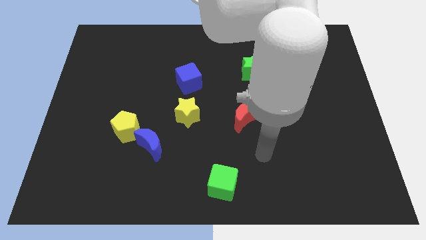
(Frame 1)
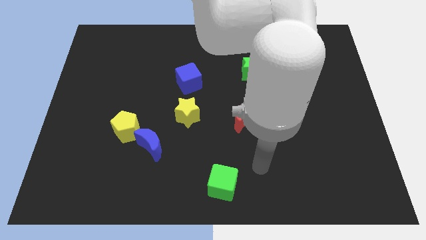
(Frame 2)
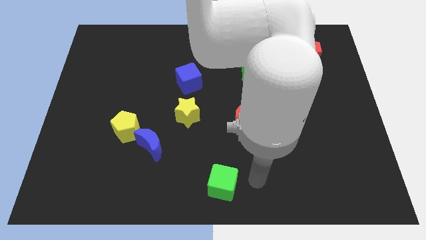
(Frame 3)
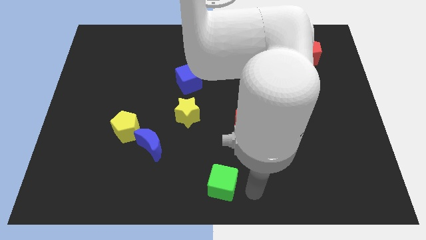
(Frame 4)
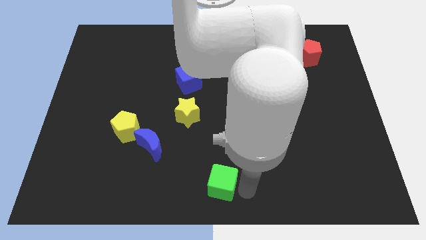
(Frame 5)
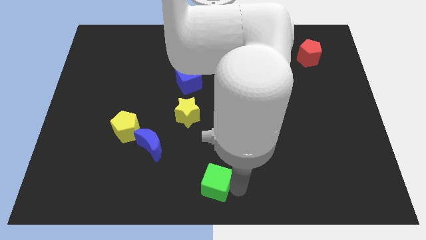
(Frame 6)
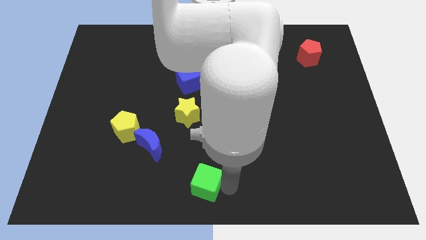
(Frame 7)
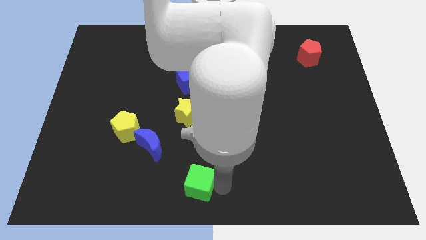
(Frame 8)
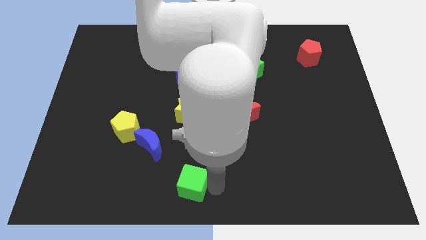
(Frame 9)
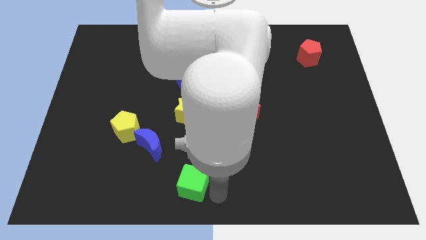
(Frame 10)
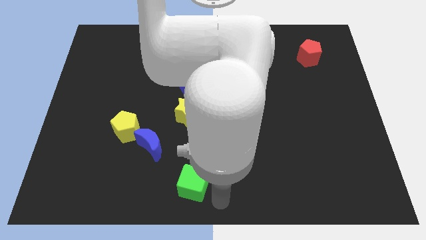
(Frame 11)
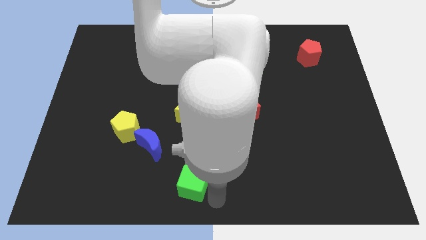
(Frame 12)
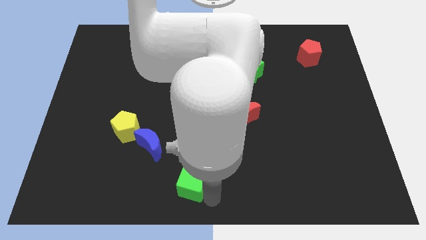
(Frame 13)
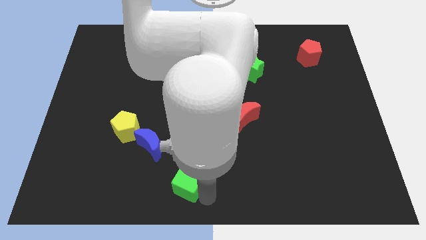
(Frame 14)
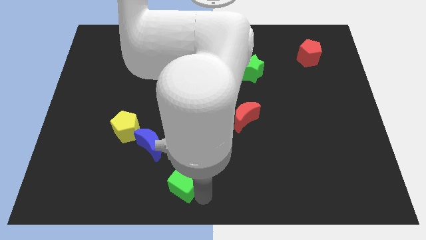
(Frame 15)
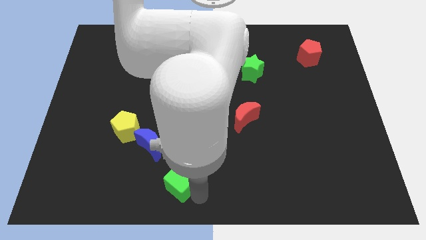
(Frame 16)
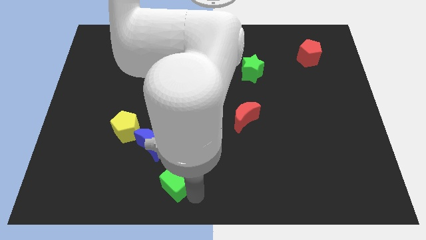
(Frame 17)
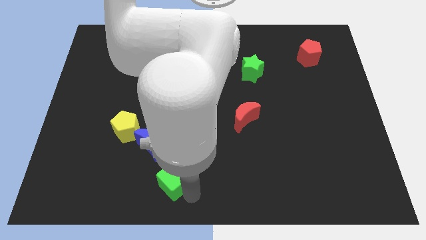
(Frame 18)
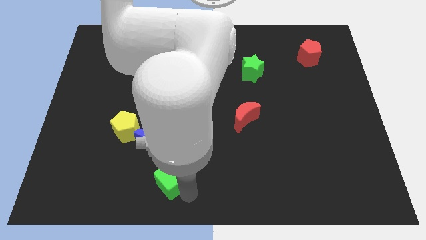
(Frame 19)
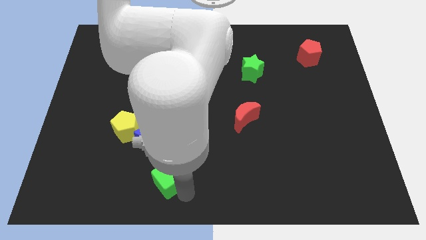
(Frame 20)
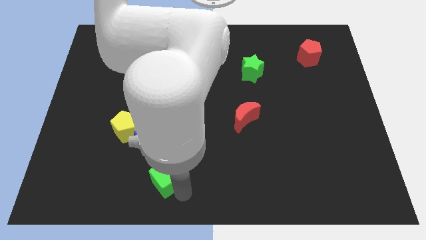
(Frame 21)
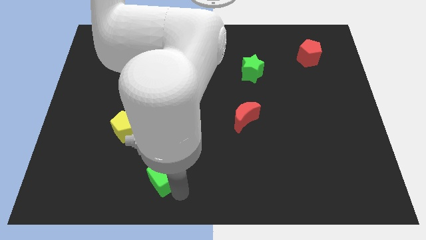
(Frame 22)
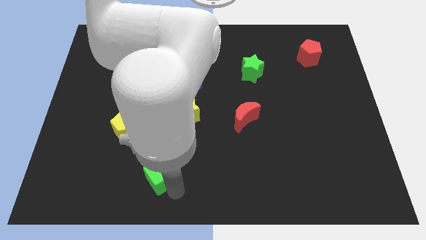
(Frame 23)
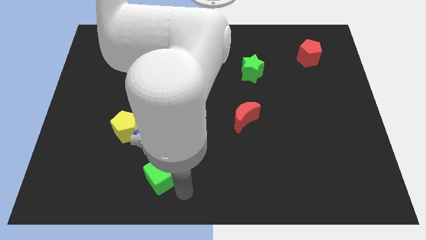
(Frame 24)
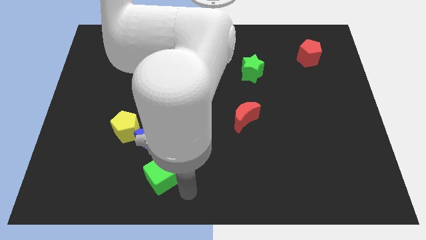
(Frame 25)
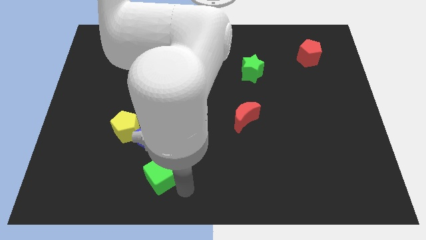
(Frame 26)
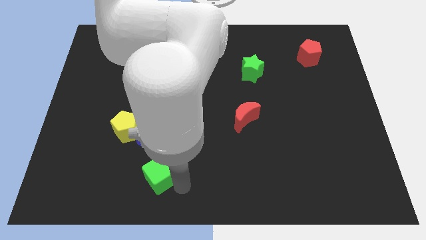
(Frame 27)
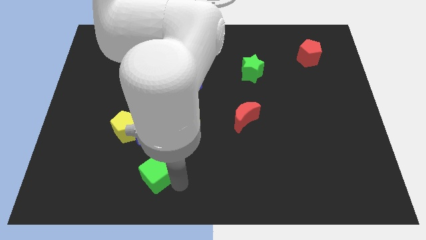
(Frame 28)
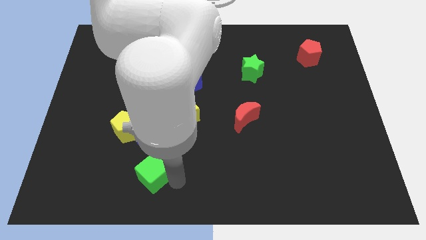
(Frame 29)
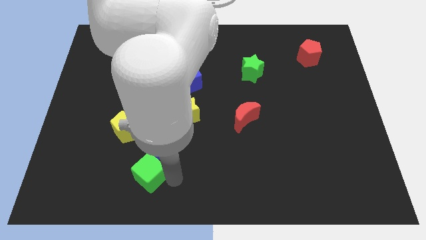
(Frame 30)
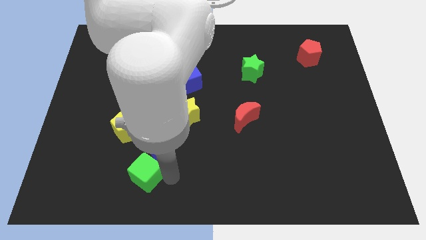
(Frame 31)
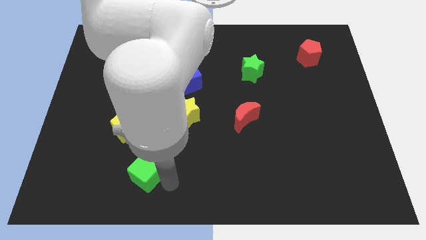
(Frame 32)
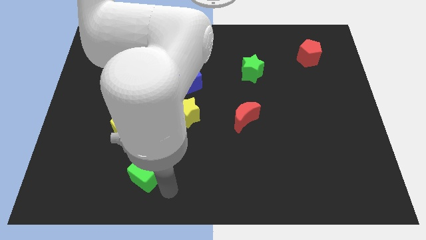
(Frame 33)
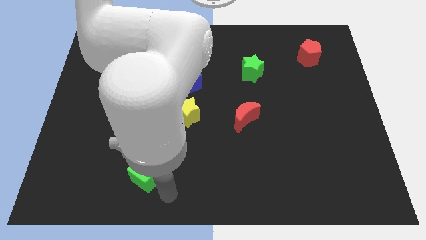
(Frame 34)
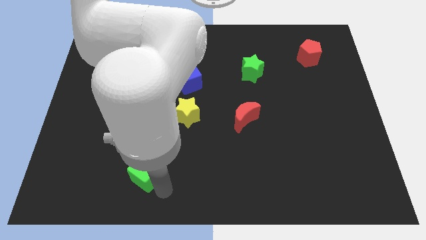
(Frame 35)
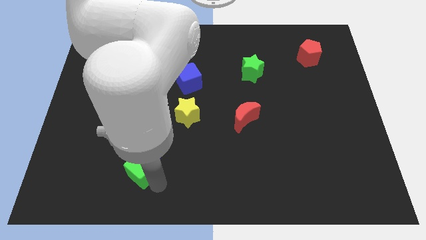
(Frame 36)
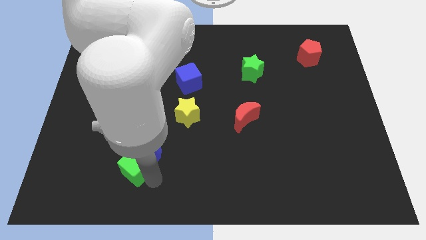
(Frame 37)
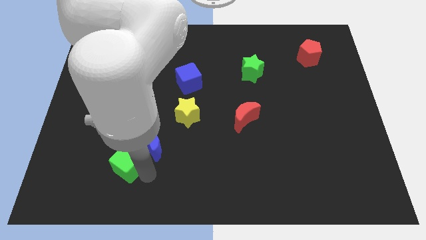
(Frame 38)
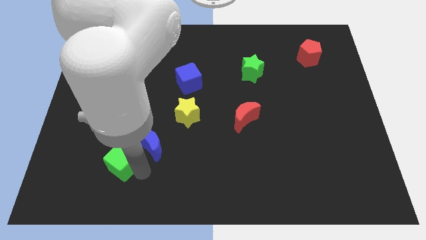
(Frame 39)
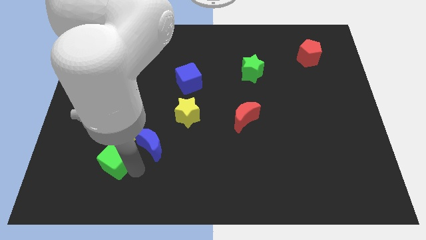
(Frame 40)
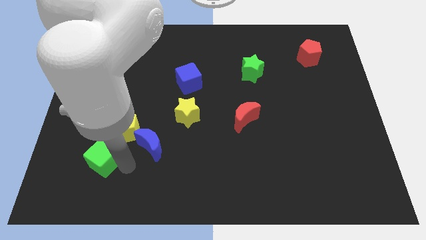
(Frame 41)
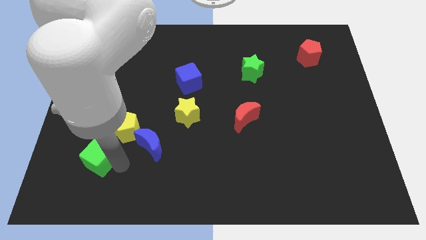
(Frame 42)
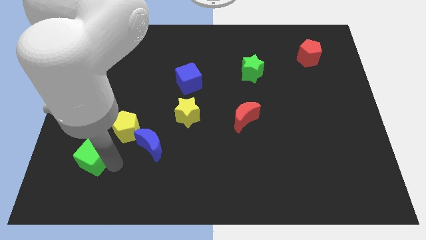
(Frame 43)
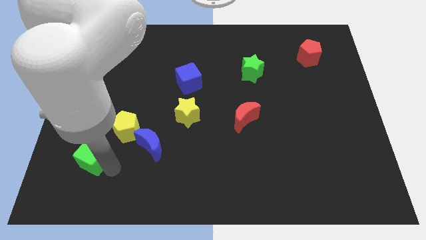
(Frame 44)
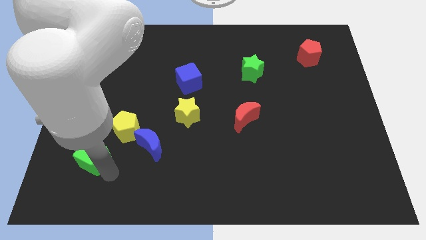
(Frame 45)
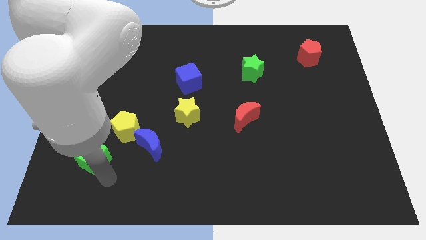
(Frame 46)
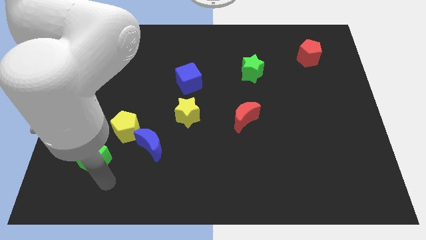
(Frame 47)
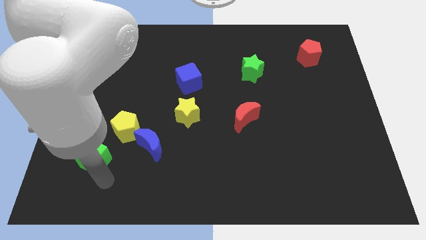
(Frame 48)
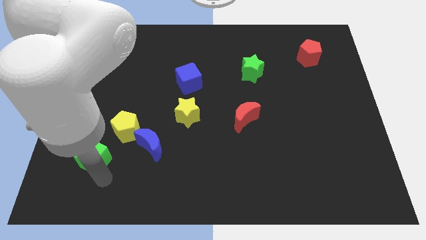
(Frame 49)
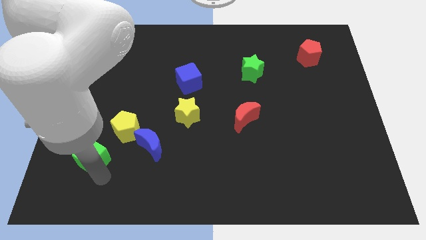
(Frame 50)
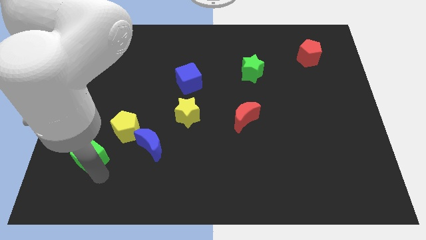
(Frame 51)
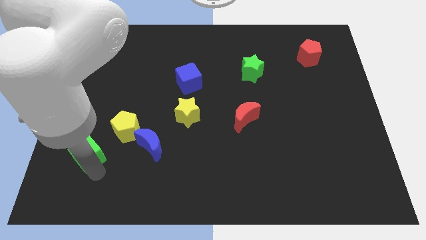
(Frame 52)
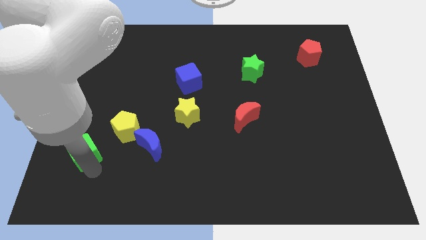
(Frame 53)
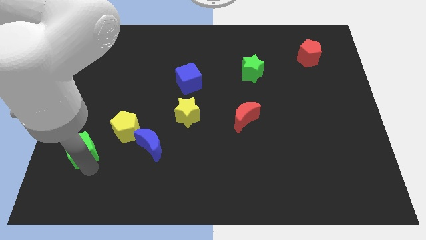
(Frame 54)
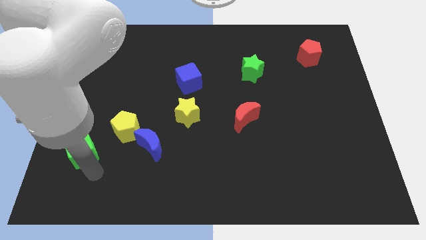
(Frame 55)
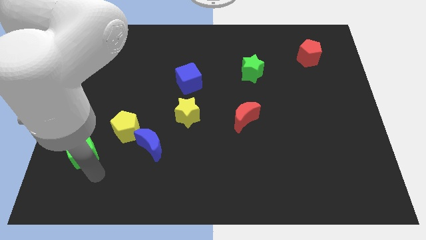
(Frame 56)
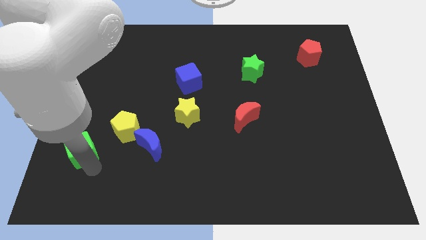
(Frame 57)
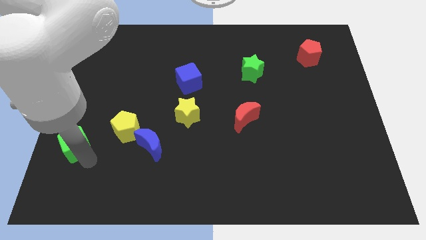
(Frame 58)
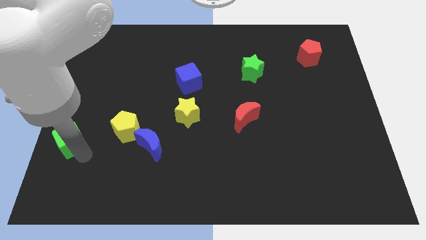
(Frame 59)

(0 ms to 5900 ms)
push the green cube to the left side of the board
